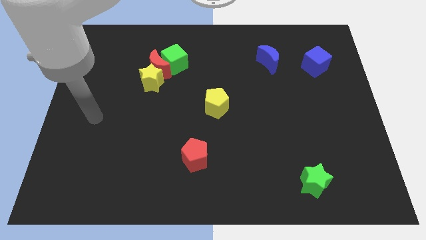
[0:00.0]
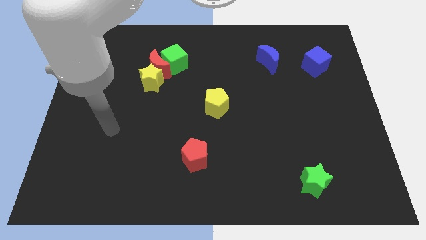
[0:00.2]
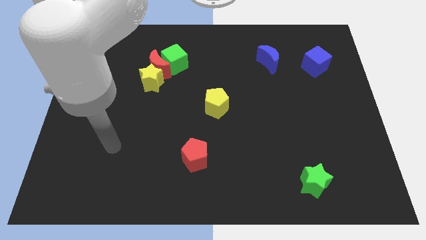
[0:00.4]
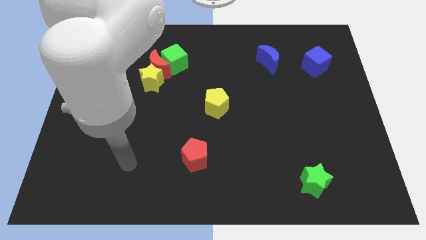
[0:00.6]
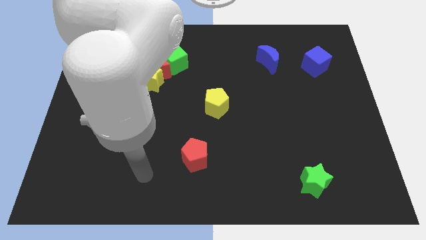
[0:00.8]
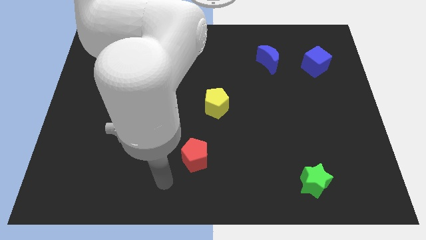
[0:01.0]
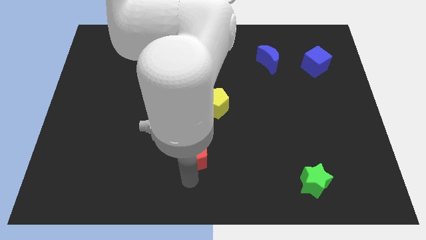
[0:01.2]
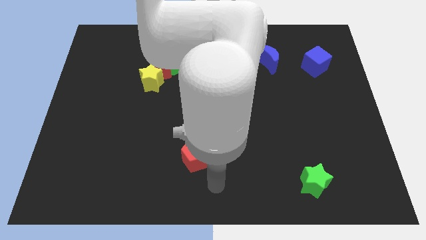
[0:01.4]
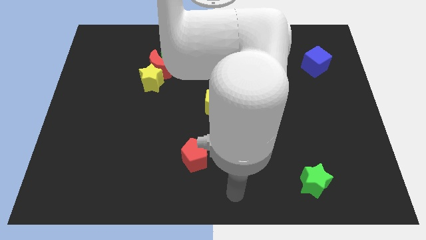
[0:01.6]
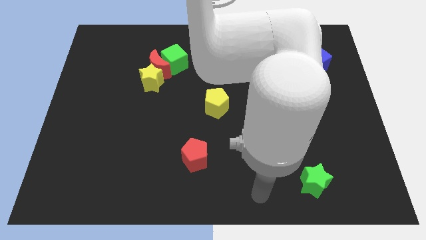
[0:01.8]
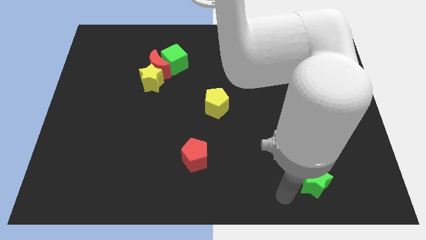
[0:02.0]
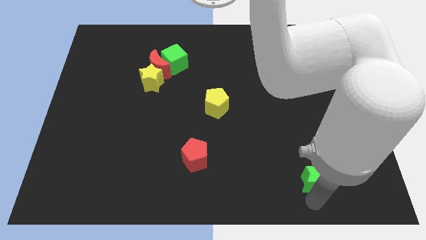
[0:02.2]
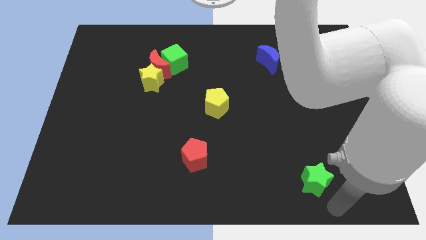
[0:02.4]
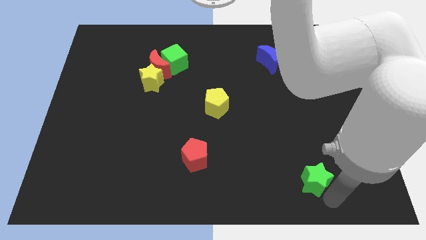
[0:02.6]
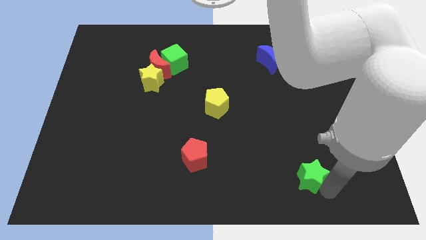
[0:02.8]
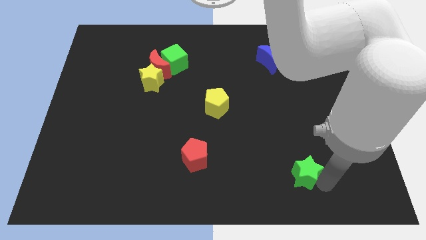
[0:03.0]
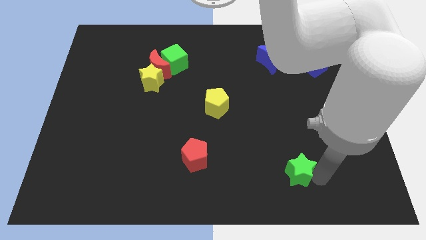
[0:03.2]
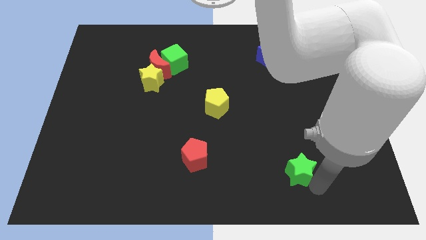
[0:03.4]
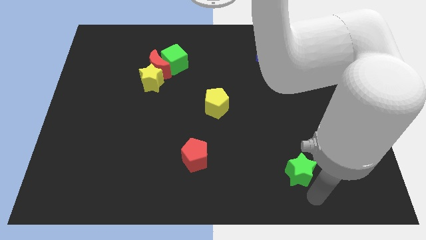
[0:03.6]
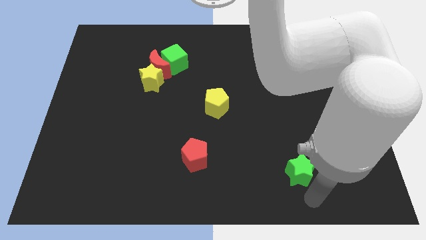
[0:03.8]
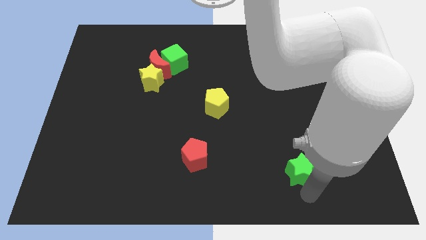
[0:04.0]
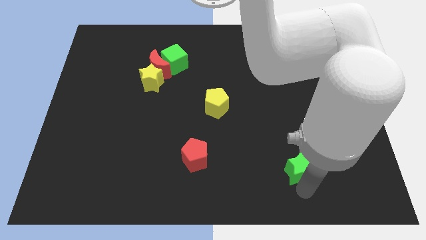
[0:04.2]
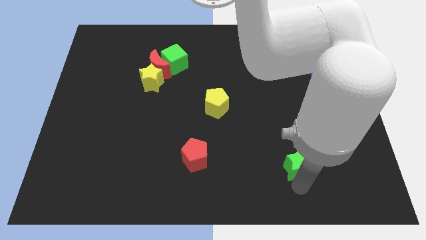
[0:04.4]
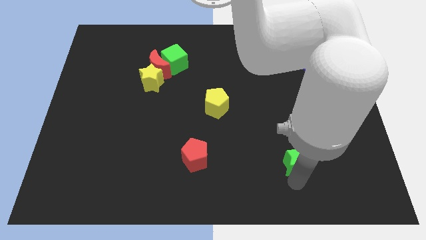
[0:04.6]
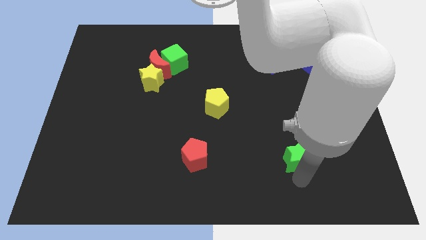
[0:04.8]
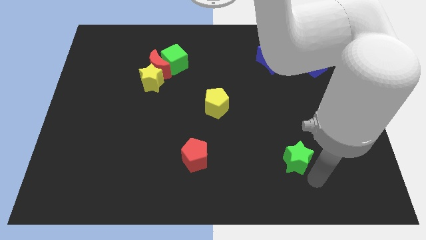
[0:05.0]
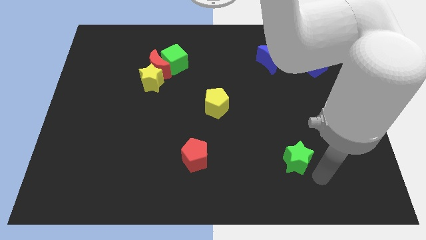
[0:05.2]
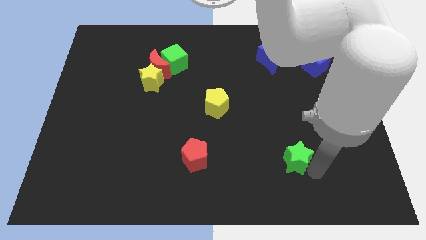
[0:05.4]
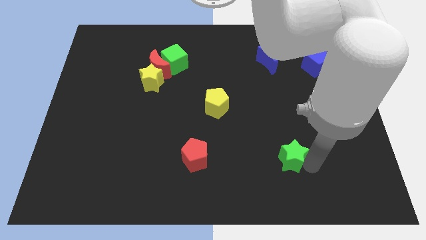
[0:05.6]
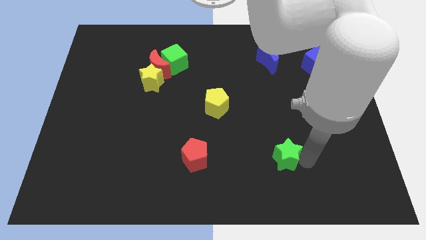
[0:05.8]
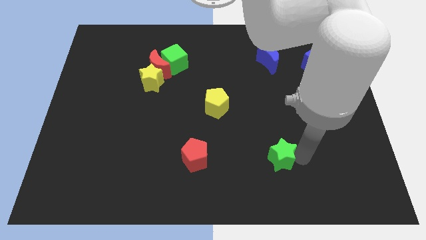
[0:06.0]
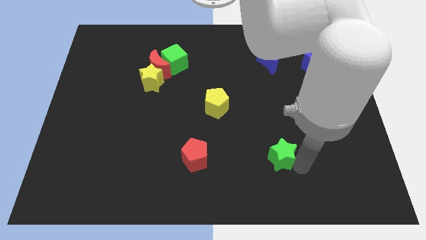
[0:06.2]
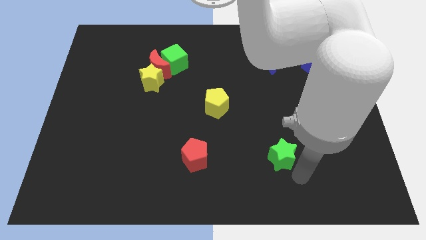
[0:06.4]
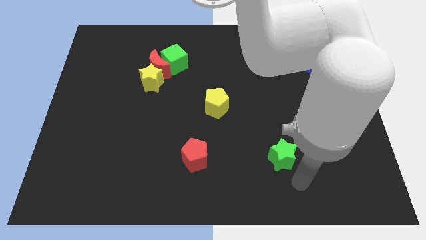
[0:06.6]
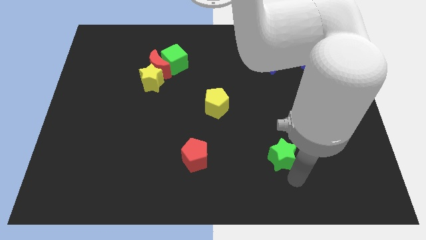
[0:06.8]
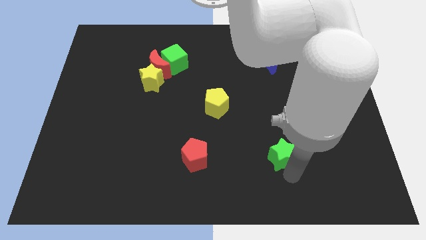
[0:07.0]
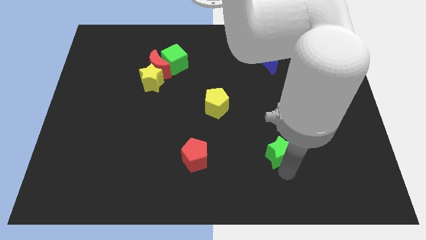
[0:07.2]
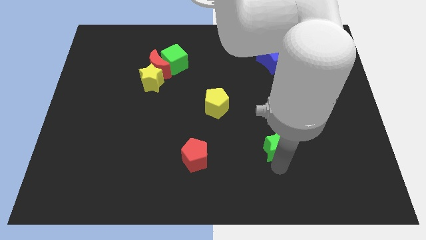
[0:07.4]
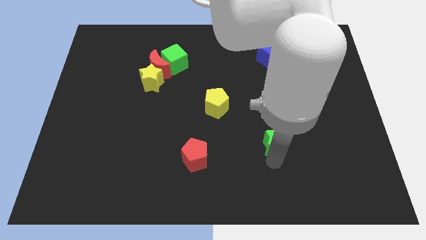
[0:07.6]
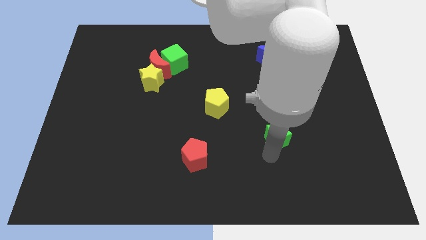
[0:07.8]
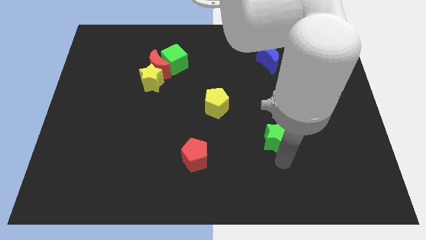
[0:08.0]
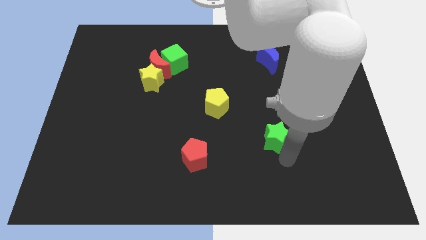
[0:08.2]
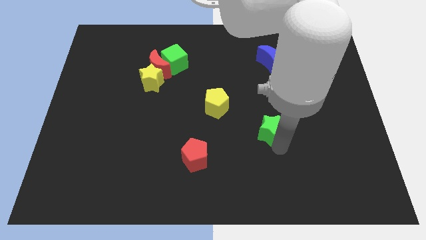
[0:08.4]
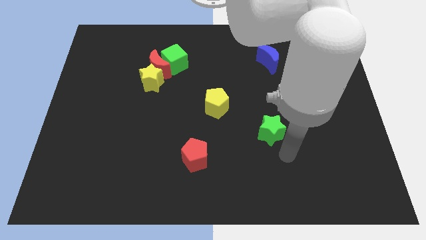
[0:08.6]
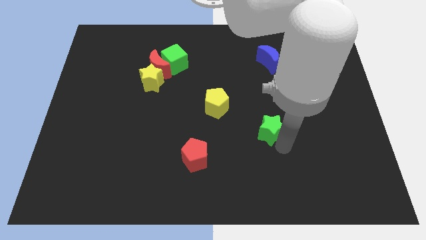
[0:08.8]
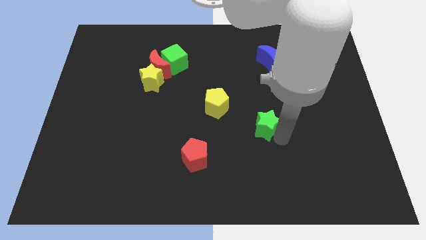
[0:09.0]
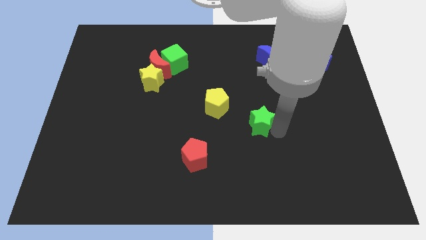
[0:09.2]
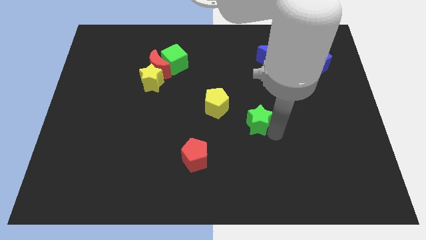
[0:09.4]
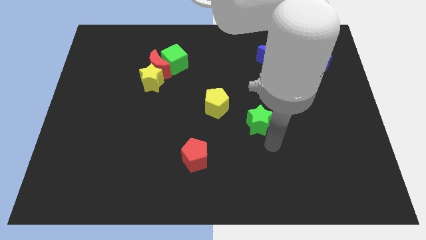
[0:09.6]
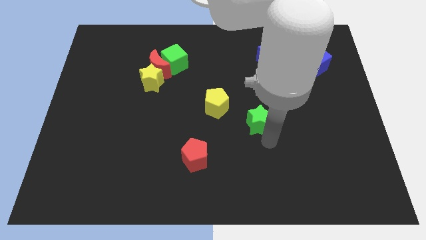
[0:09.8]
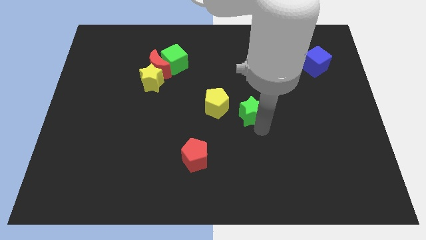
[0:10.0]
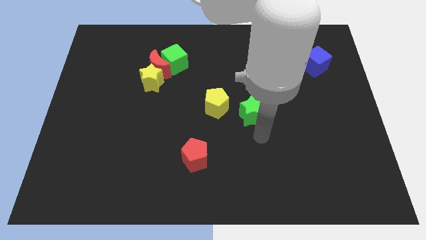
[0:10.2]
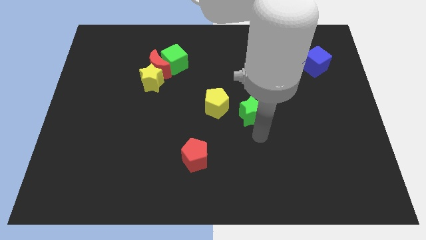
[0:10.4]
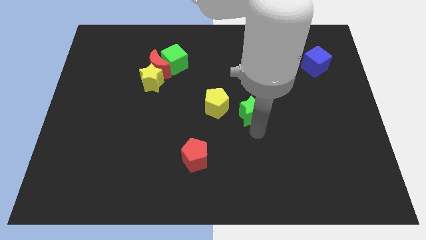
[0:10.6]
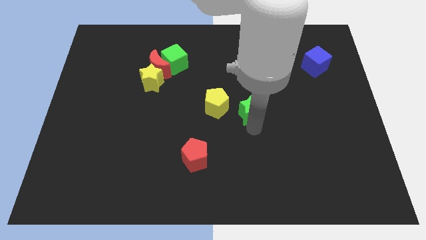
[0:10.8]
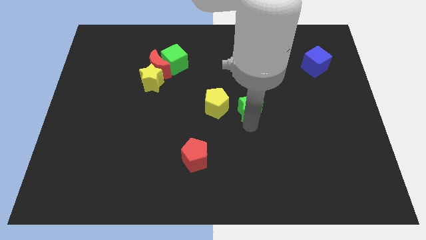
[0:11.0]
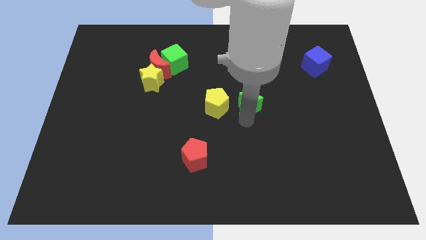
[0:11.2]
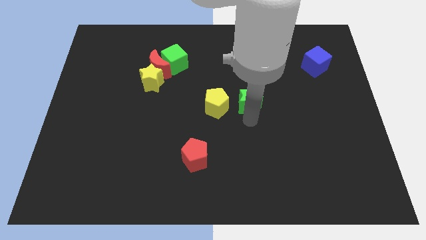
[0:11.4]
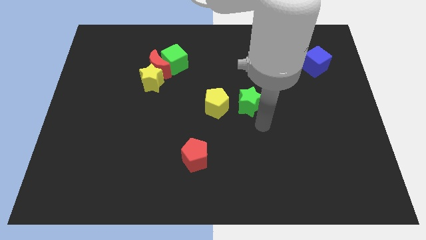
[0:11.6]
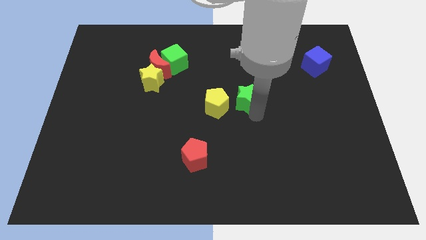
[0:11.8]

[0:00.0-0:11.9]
slide the green star diagonally up and to the right of the yellow pentagon

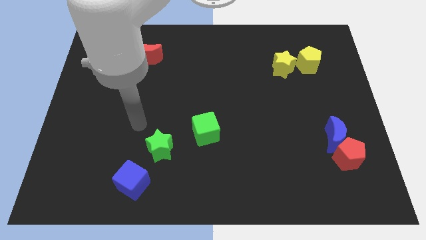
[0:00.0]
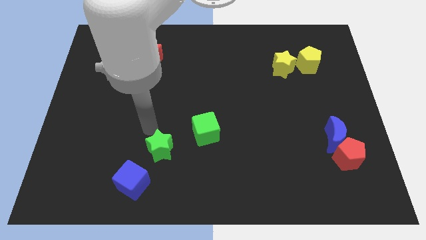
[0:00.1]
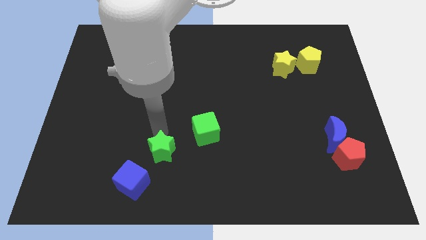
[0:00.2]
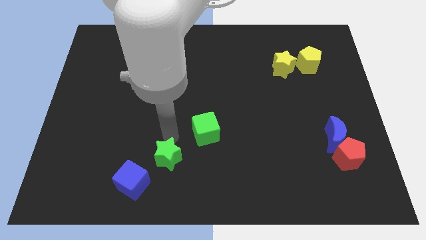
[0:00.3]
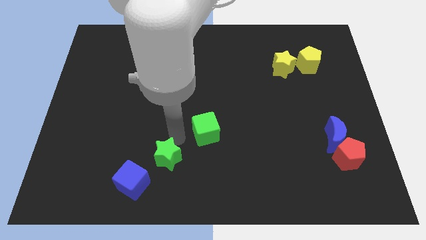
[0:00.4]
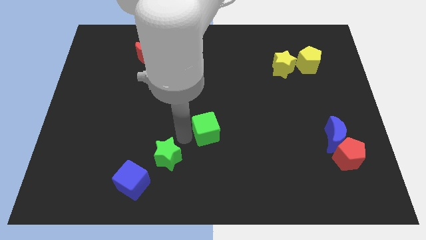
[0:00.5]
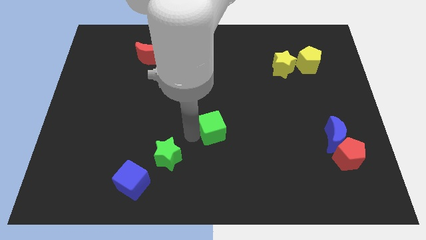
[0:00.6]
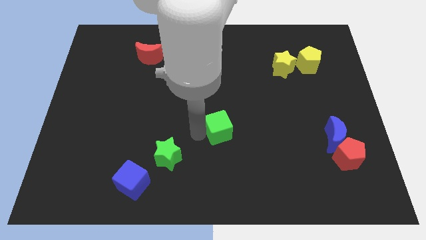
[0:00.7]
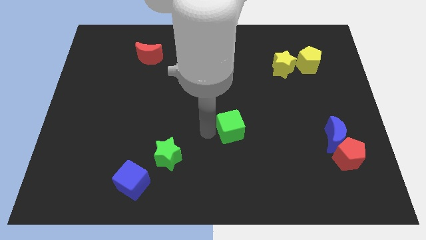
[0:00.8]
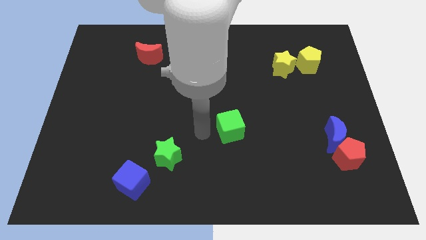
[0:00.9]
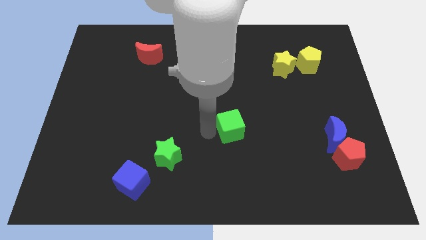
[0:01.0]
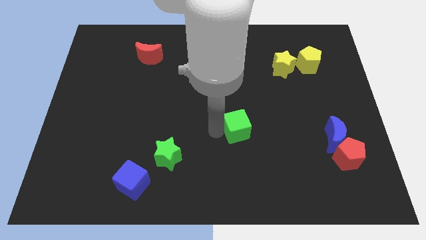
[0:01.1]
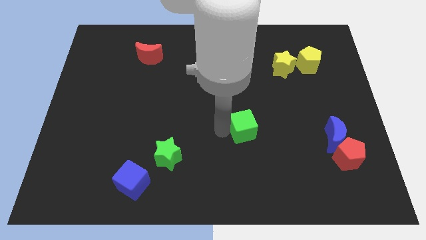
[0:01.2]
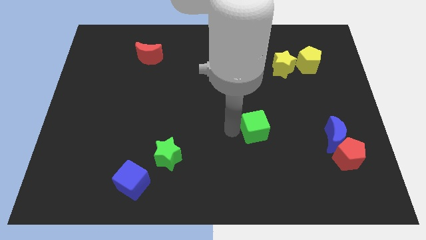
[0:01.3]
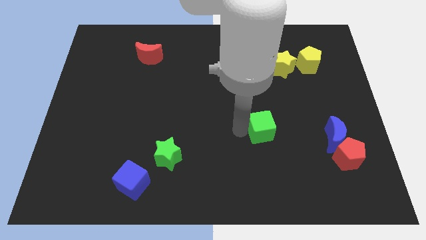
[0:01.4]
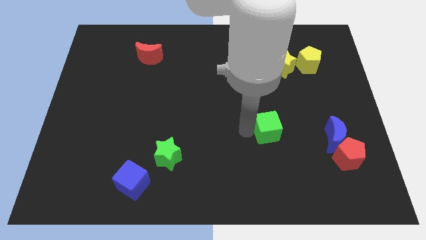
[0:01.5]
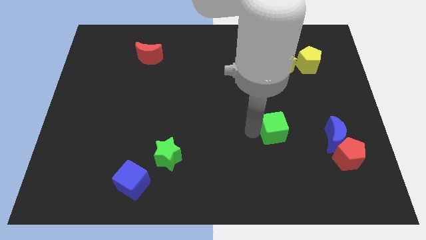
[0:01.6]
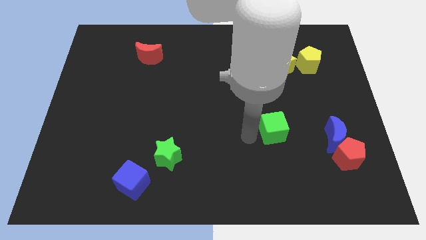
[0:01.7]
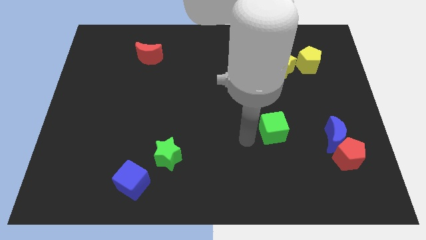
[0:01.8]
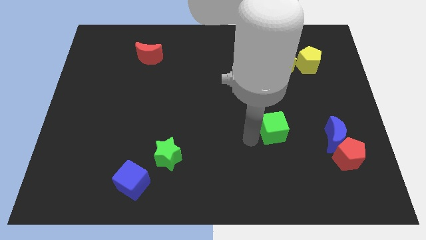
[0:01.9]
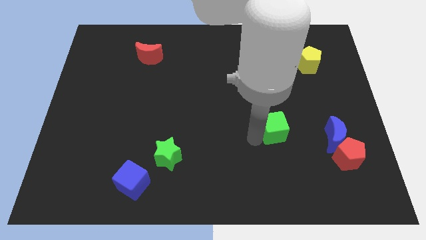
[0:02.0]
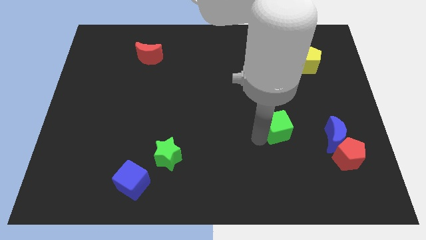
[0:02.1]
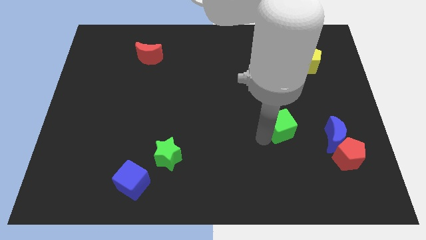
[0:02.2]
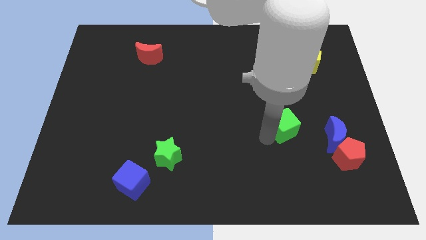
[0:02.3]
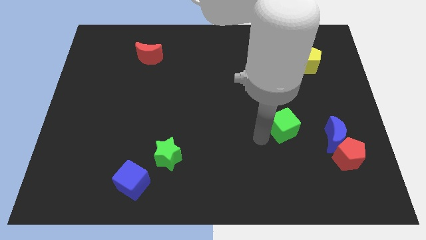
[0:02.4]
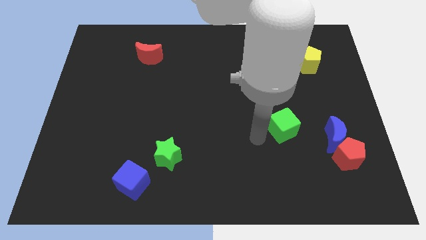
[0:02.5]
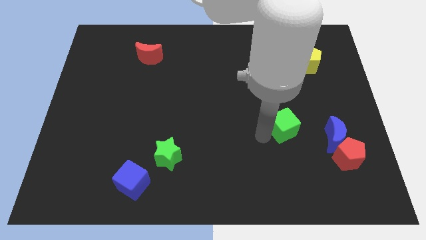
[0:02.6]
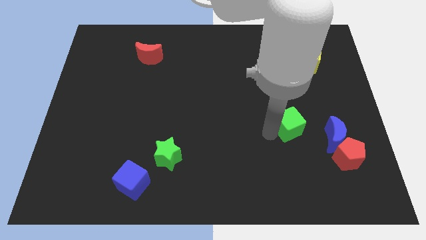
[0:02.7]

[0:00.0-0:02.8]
push the green cube to the top left of the blue moon
